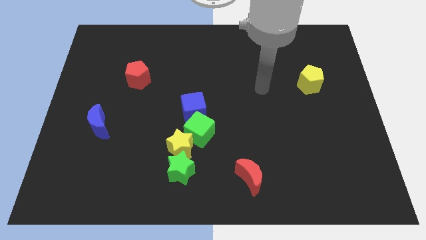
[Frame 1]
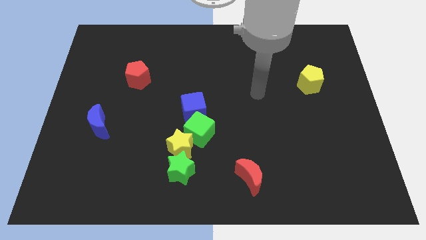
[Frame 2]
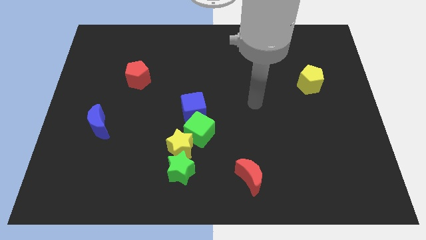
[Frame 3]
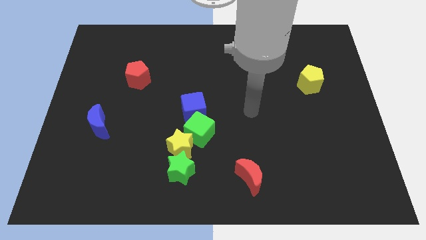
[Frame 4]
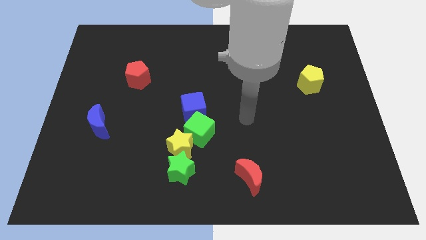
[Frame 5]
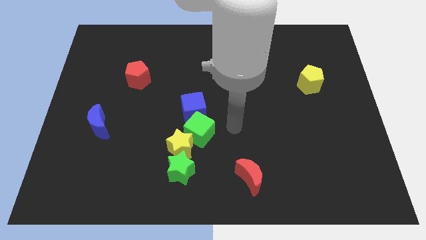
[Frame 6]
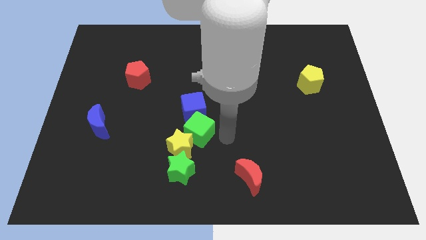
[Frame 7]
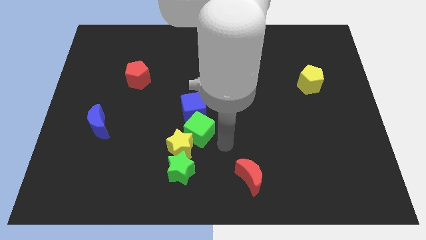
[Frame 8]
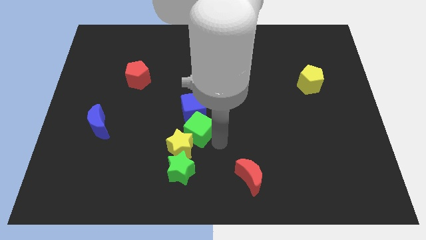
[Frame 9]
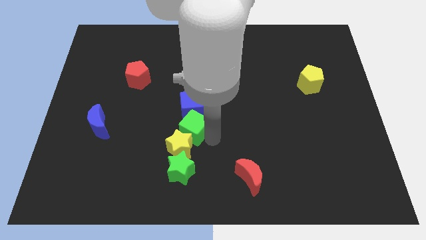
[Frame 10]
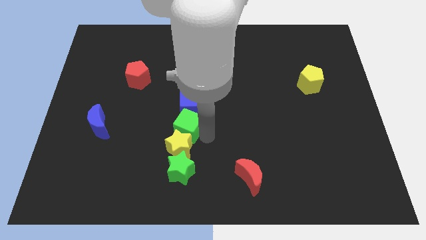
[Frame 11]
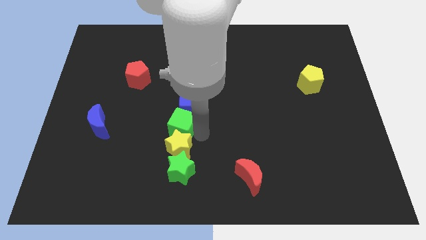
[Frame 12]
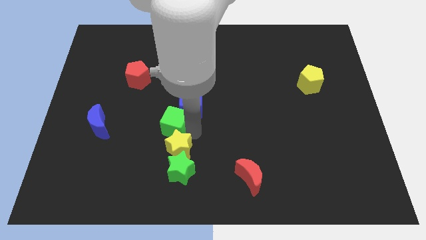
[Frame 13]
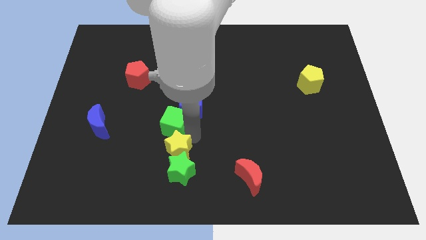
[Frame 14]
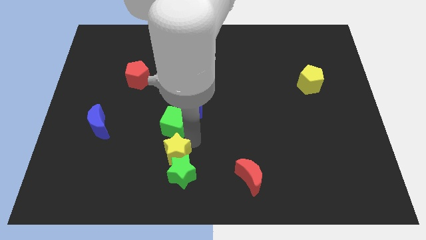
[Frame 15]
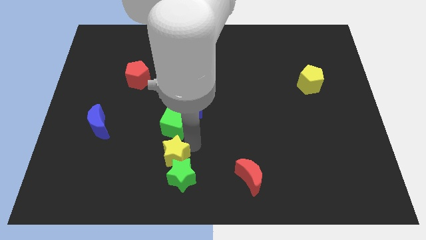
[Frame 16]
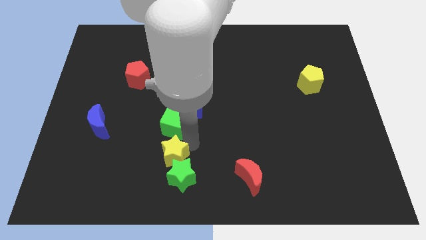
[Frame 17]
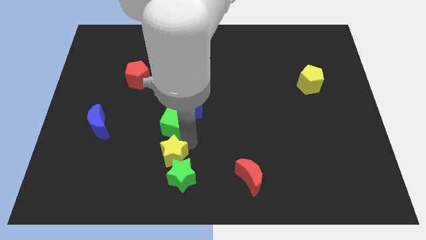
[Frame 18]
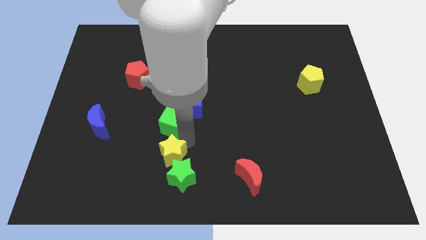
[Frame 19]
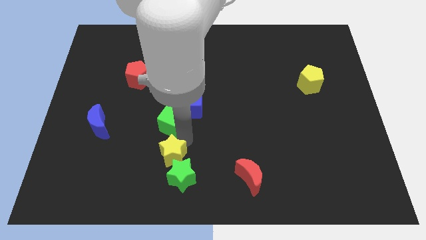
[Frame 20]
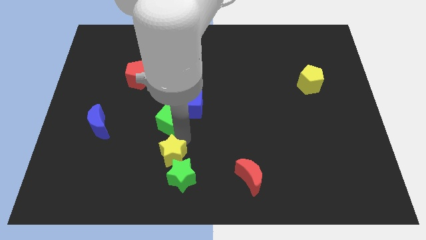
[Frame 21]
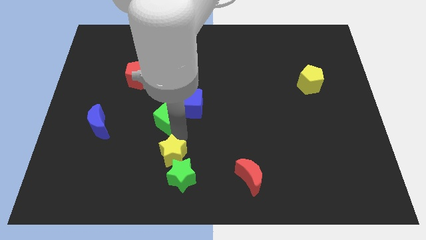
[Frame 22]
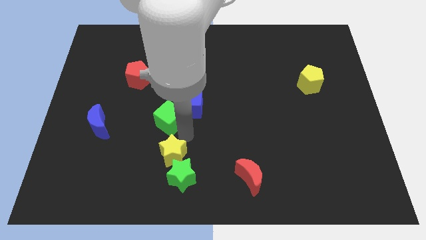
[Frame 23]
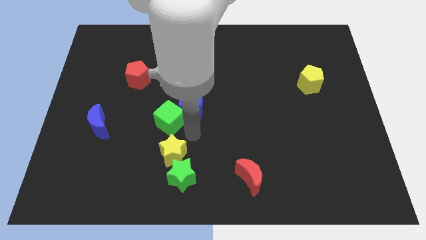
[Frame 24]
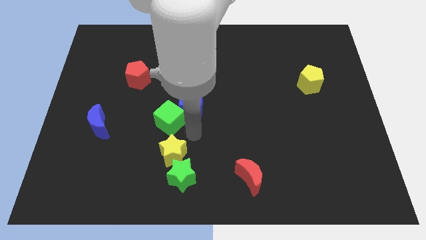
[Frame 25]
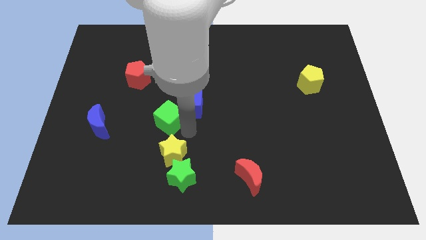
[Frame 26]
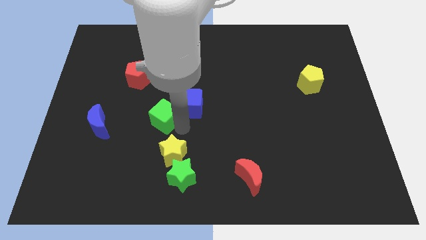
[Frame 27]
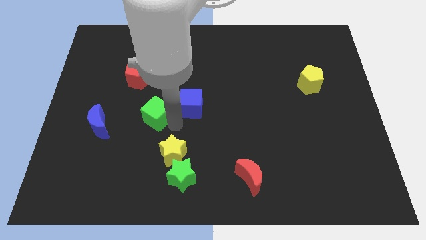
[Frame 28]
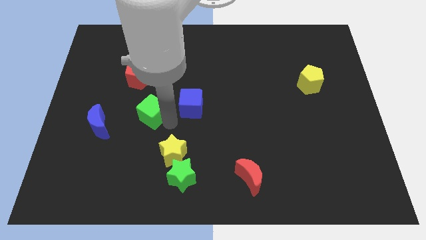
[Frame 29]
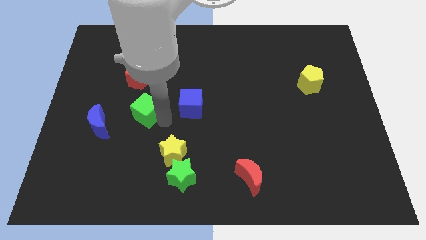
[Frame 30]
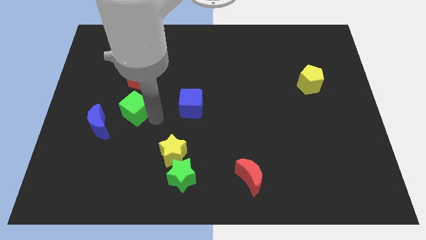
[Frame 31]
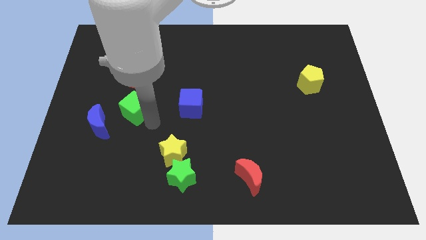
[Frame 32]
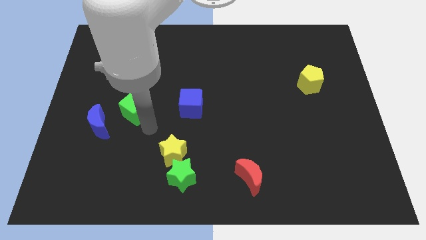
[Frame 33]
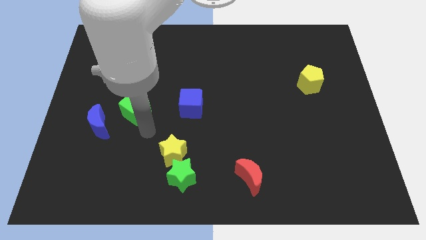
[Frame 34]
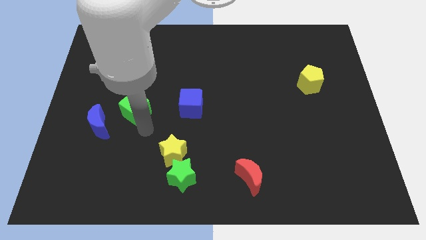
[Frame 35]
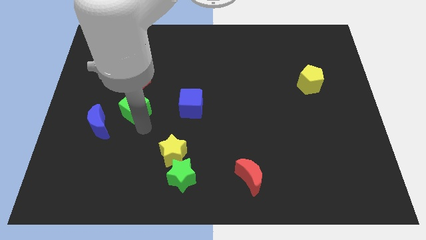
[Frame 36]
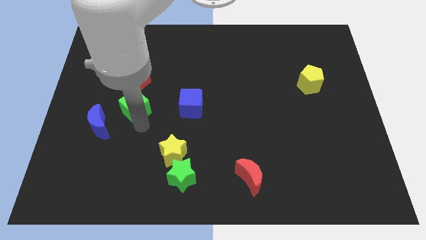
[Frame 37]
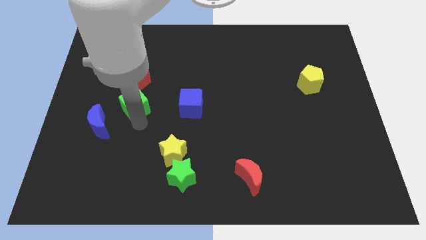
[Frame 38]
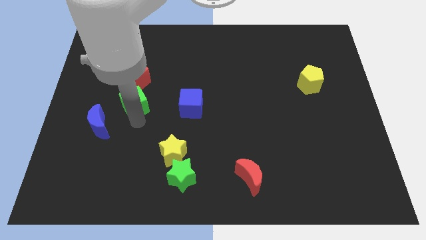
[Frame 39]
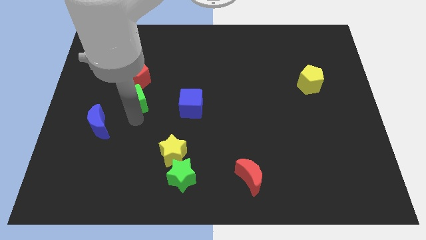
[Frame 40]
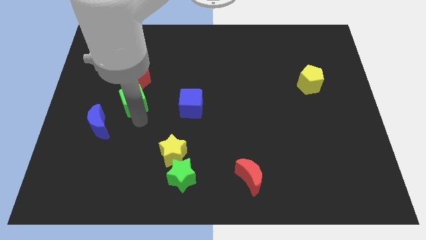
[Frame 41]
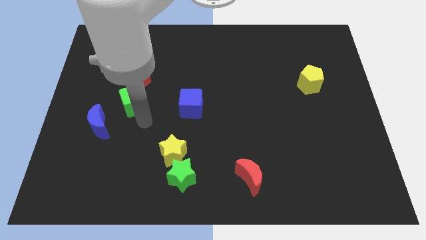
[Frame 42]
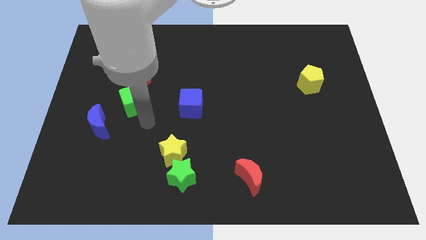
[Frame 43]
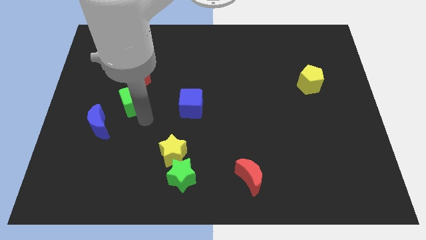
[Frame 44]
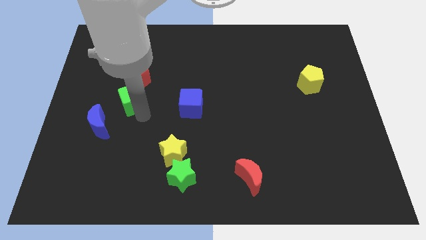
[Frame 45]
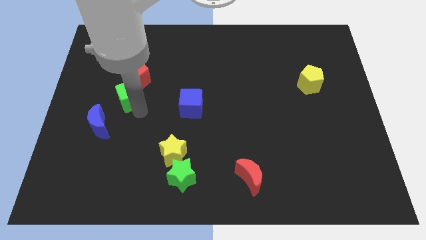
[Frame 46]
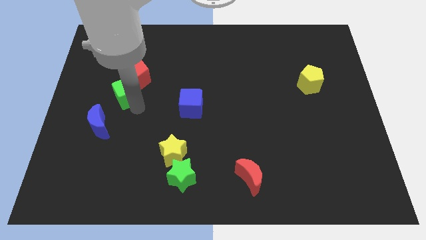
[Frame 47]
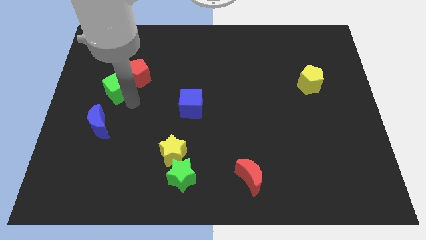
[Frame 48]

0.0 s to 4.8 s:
move the green cube diagonally up and to the left

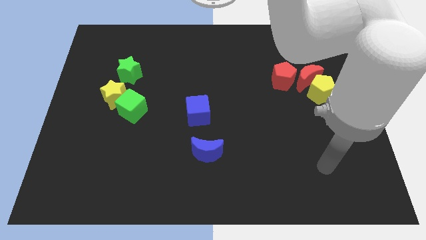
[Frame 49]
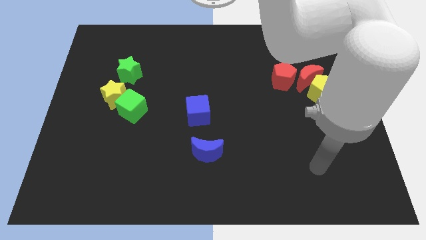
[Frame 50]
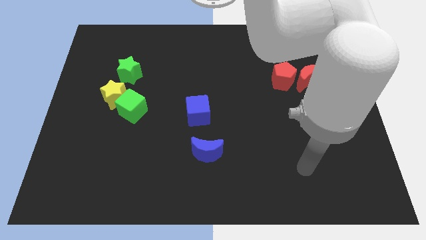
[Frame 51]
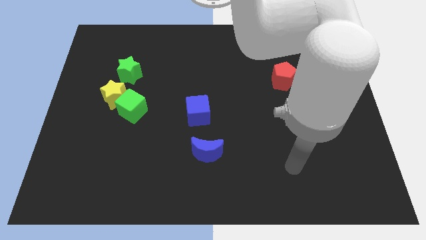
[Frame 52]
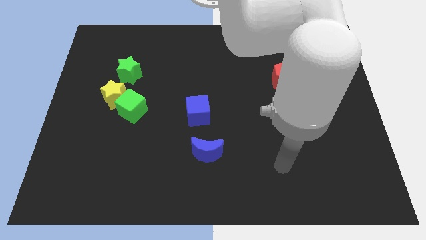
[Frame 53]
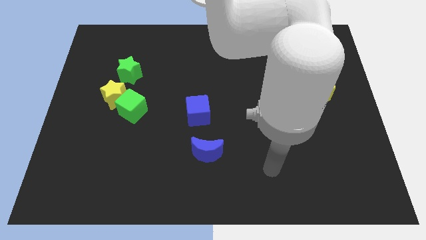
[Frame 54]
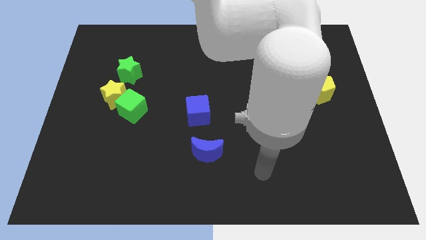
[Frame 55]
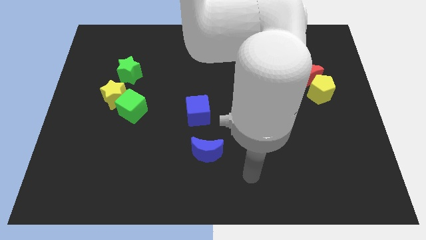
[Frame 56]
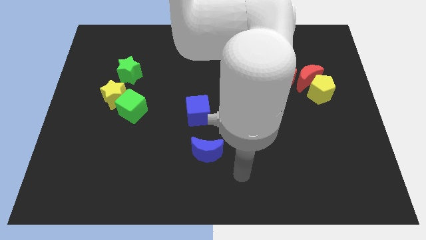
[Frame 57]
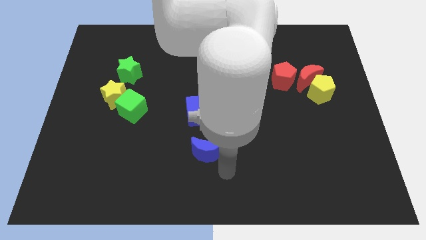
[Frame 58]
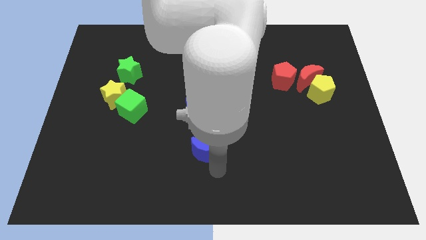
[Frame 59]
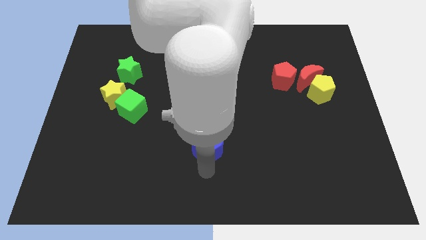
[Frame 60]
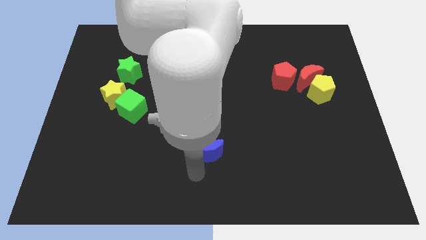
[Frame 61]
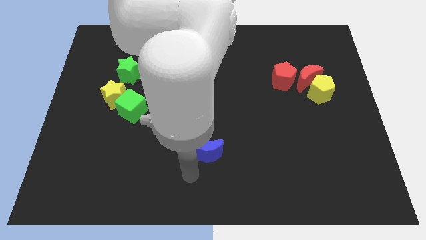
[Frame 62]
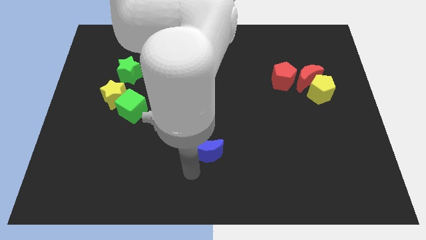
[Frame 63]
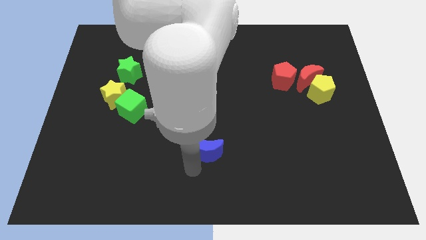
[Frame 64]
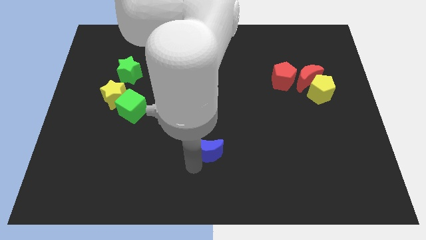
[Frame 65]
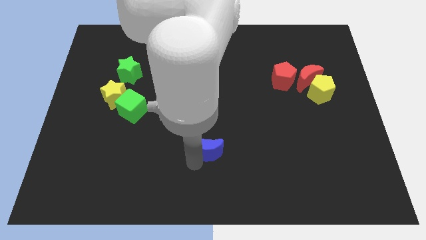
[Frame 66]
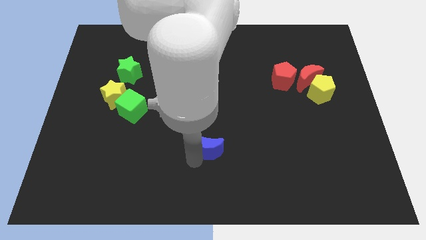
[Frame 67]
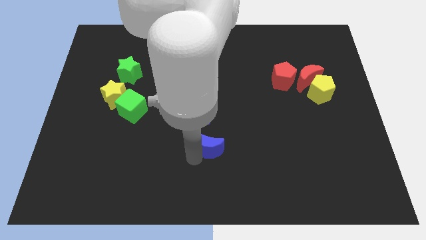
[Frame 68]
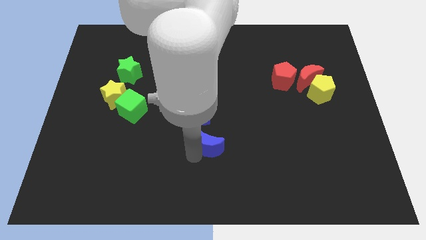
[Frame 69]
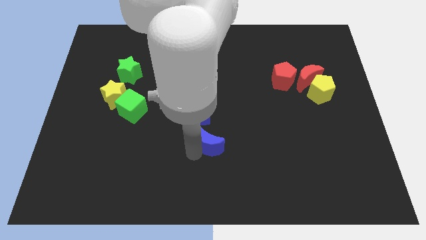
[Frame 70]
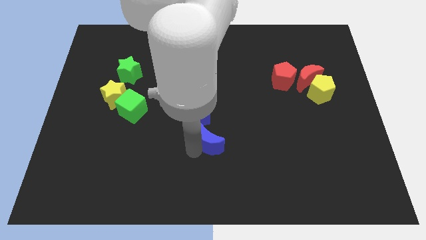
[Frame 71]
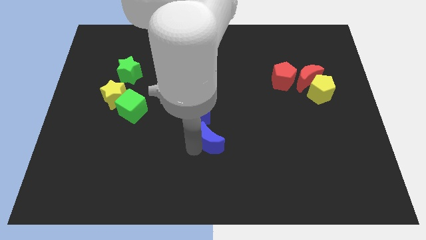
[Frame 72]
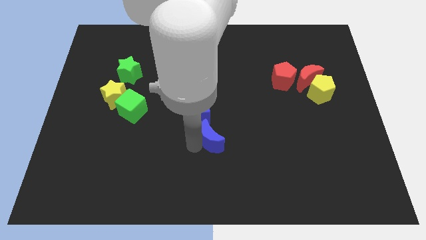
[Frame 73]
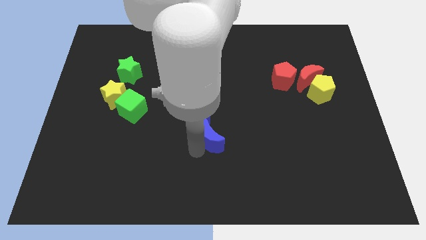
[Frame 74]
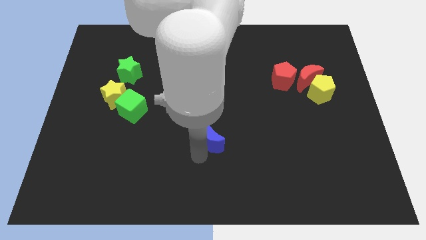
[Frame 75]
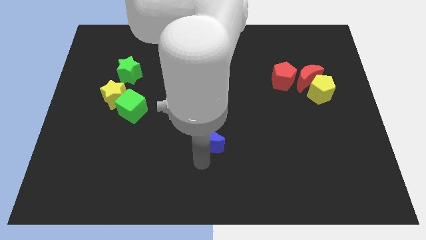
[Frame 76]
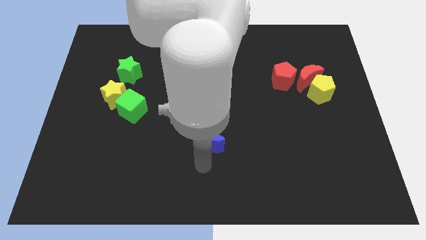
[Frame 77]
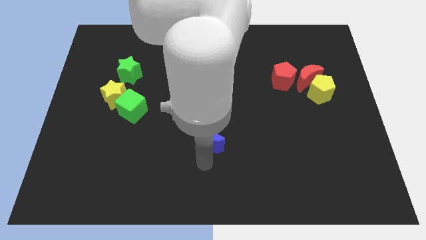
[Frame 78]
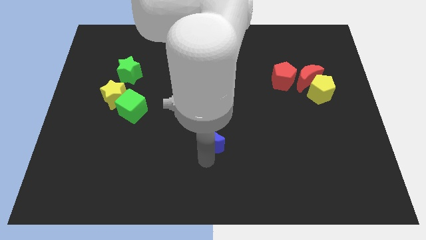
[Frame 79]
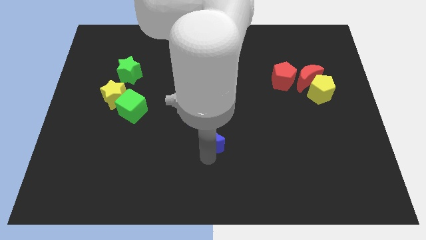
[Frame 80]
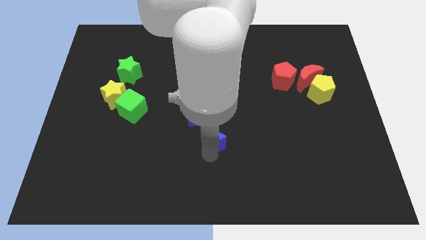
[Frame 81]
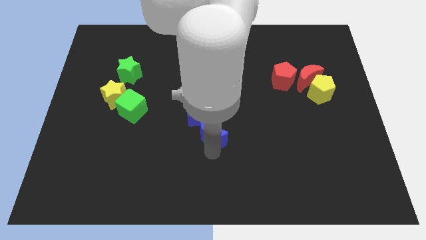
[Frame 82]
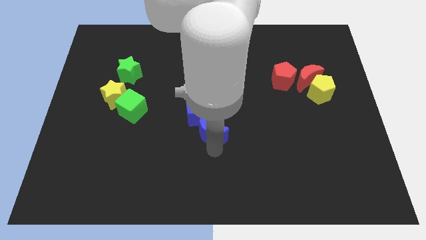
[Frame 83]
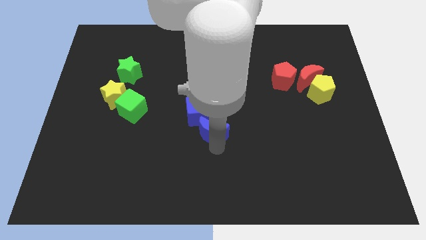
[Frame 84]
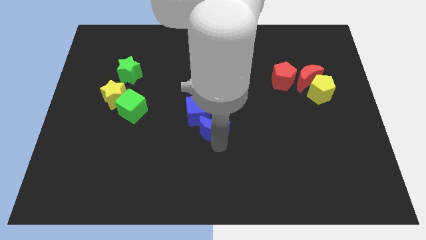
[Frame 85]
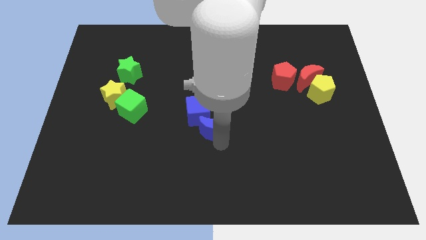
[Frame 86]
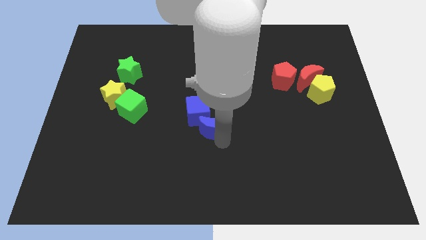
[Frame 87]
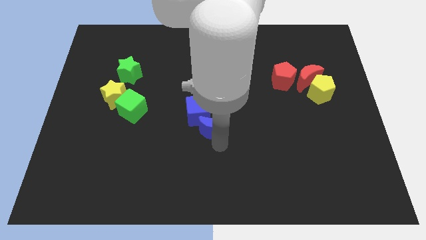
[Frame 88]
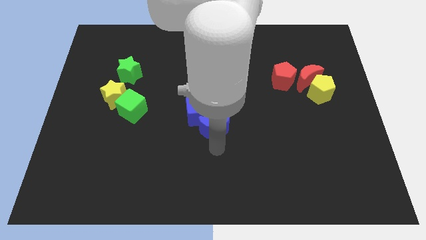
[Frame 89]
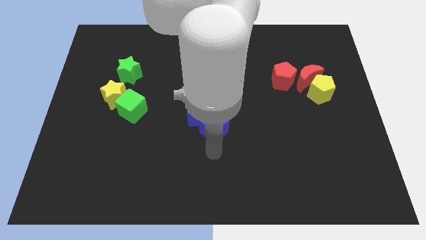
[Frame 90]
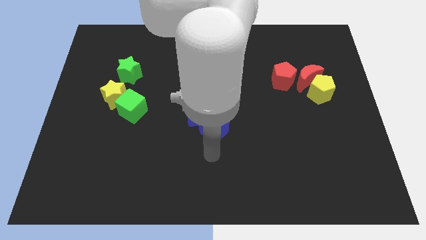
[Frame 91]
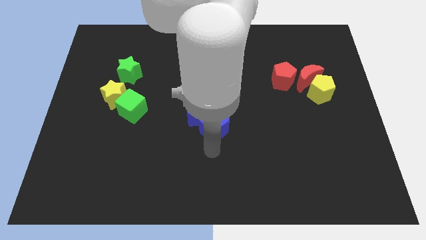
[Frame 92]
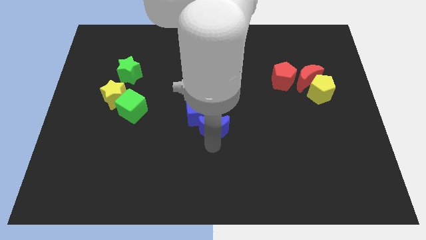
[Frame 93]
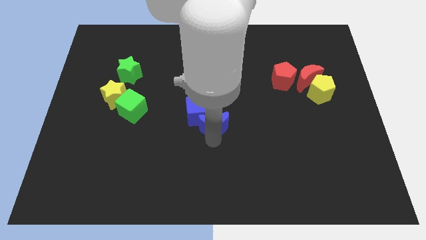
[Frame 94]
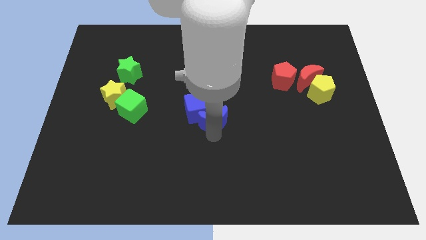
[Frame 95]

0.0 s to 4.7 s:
move the blue moon up slightly
